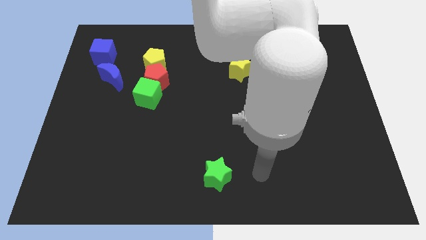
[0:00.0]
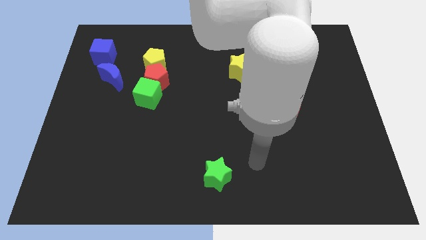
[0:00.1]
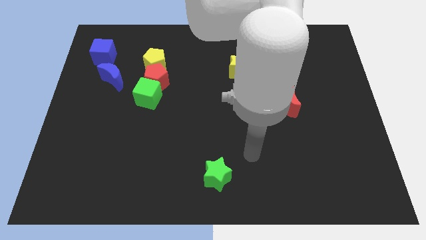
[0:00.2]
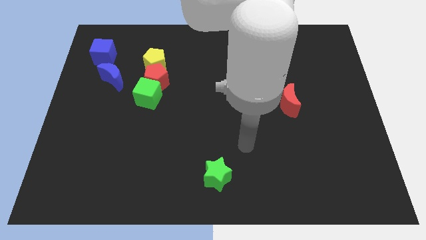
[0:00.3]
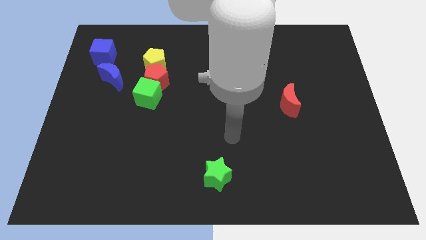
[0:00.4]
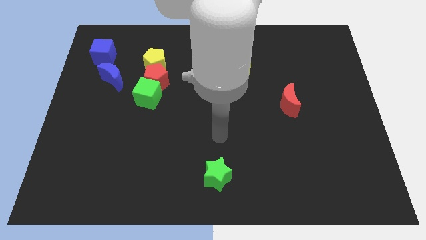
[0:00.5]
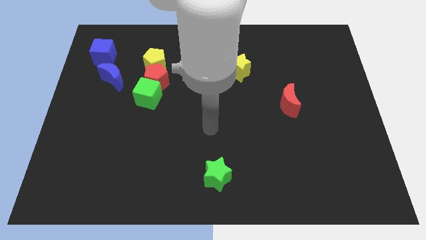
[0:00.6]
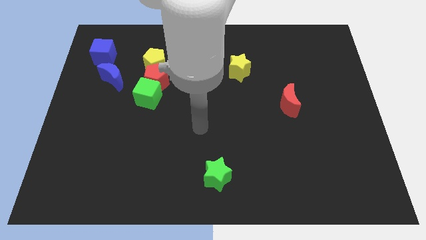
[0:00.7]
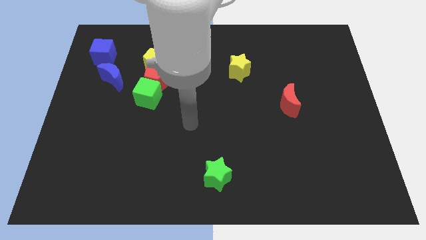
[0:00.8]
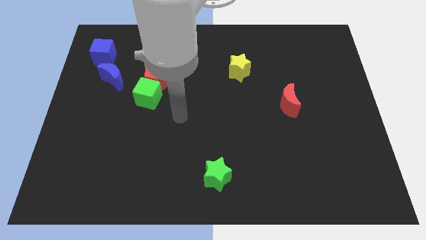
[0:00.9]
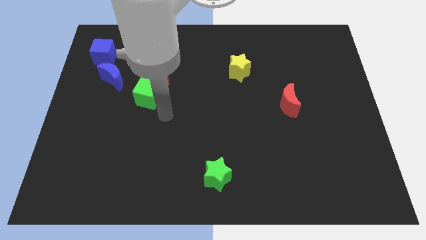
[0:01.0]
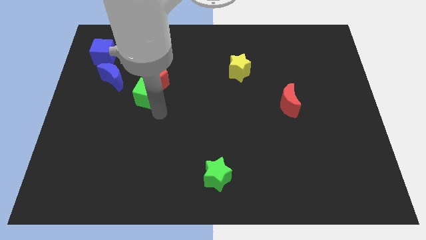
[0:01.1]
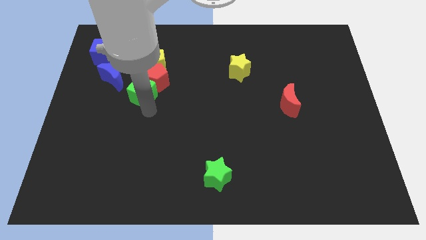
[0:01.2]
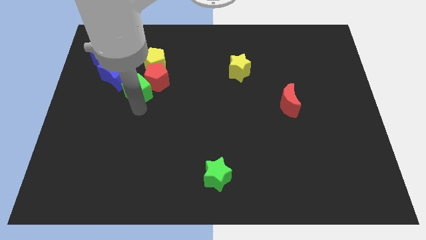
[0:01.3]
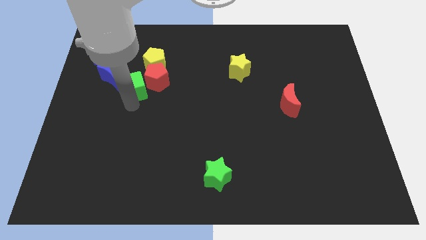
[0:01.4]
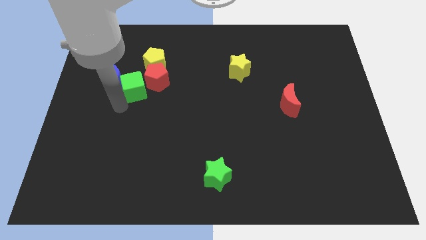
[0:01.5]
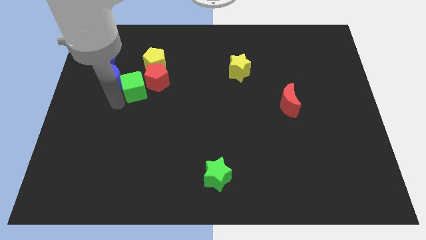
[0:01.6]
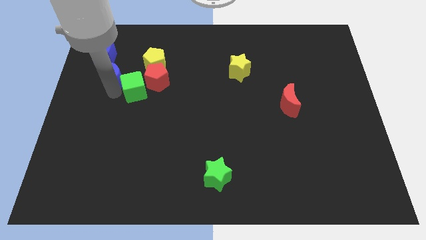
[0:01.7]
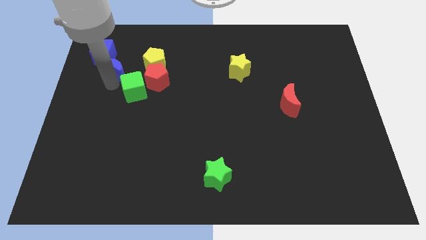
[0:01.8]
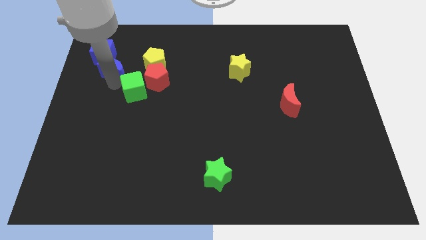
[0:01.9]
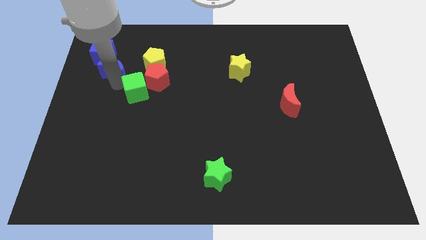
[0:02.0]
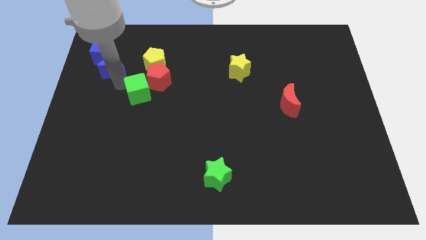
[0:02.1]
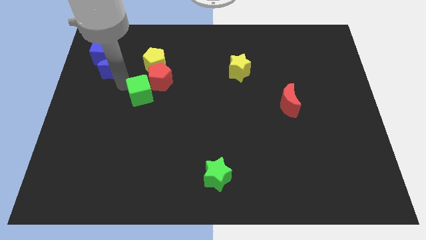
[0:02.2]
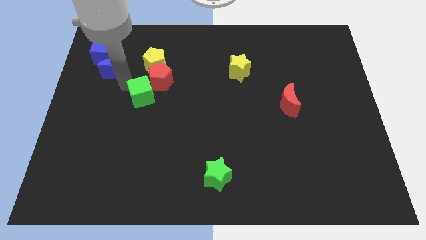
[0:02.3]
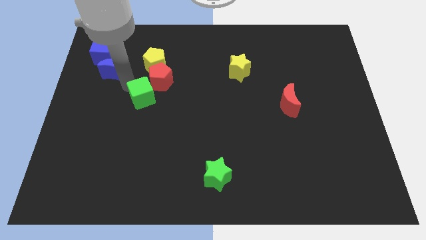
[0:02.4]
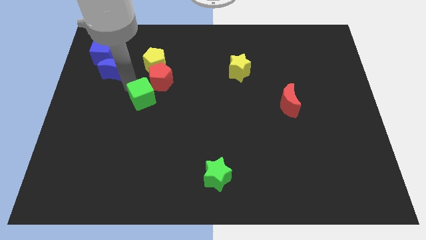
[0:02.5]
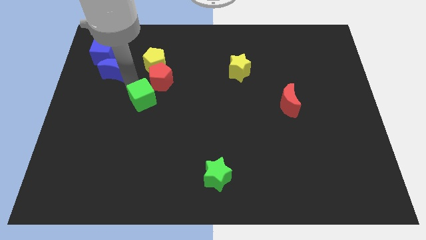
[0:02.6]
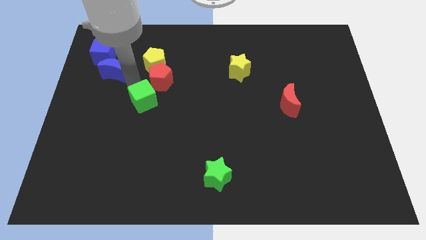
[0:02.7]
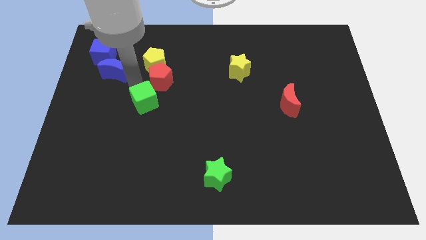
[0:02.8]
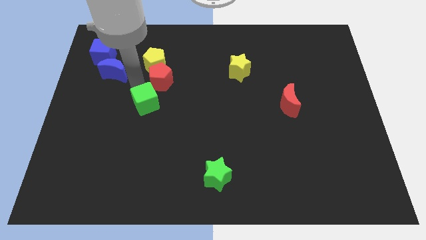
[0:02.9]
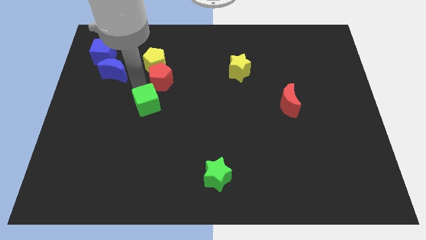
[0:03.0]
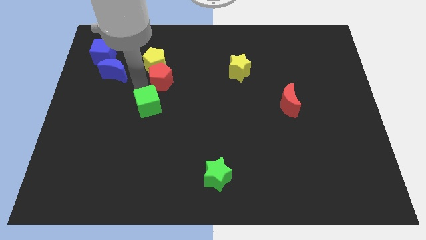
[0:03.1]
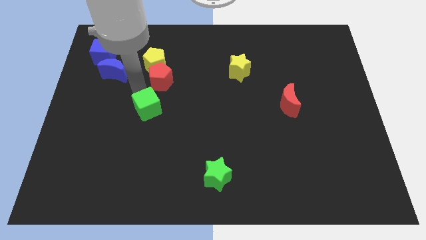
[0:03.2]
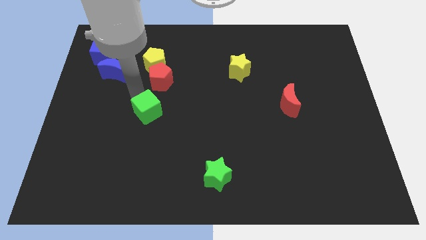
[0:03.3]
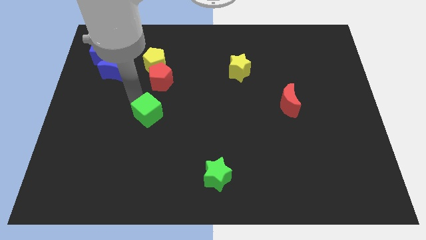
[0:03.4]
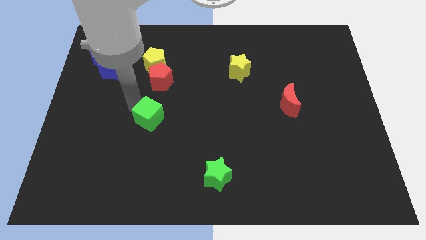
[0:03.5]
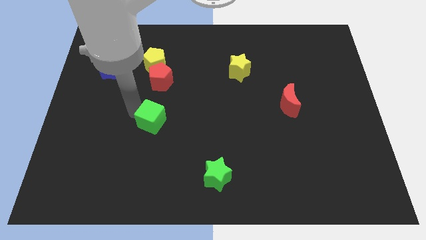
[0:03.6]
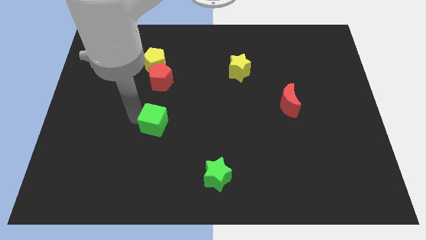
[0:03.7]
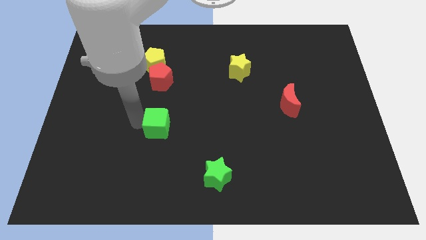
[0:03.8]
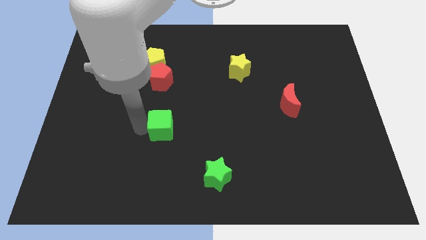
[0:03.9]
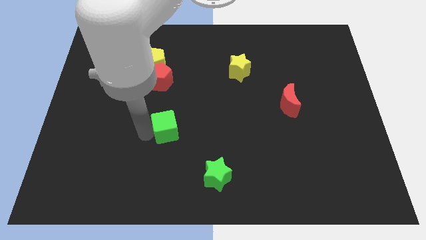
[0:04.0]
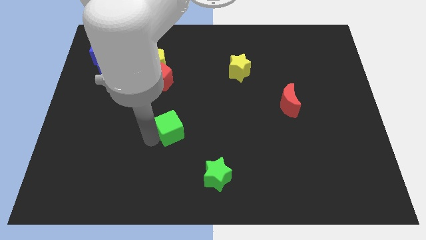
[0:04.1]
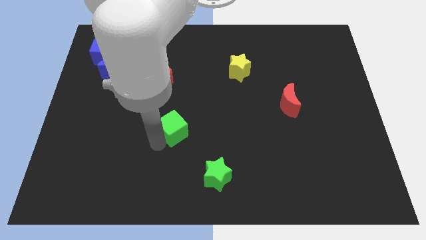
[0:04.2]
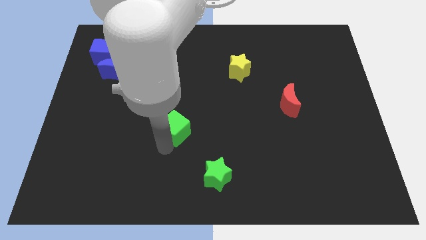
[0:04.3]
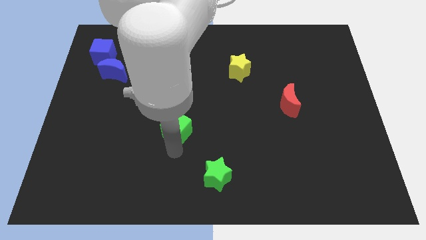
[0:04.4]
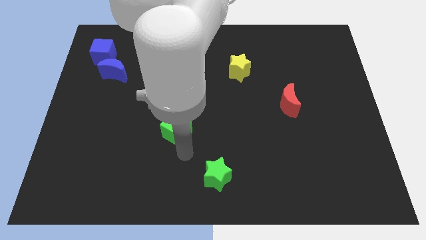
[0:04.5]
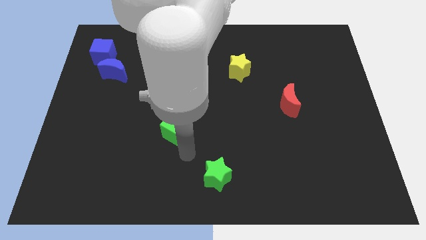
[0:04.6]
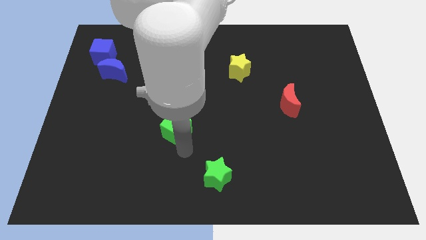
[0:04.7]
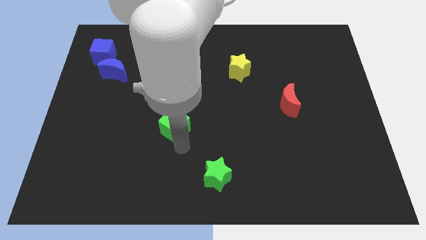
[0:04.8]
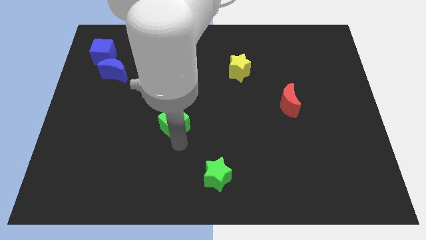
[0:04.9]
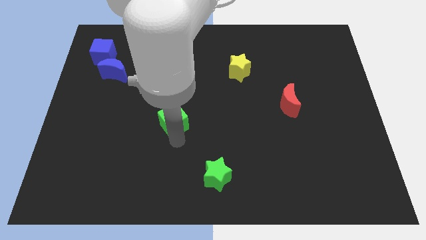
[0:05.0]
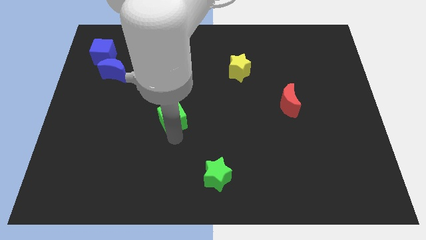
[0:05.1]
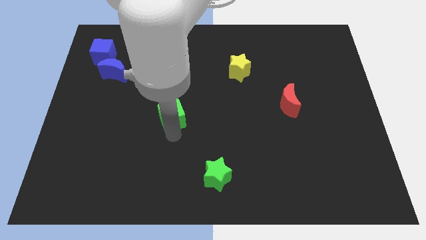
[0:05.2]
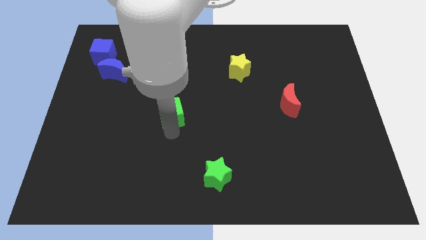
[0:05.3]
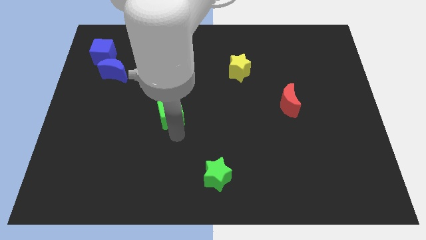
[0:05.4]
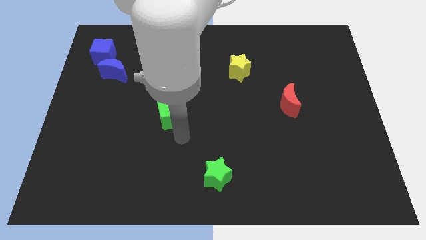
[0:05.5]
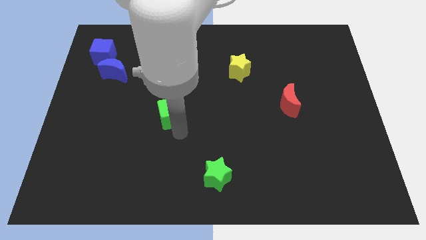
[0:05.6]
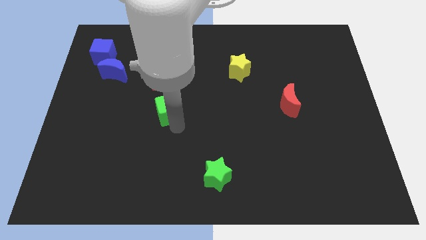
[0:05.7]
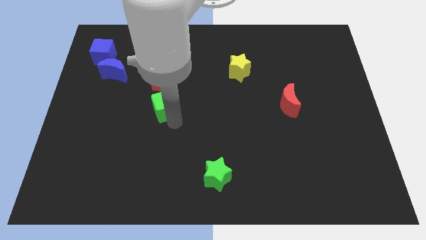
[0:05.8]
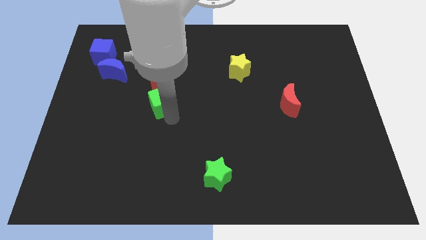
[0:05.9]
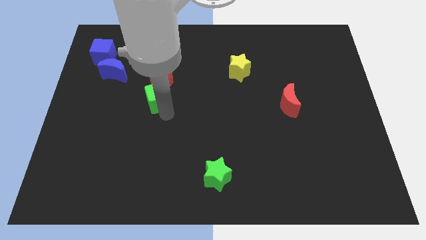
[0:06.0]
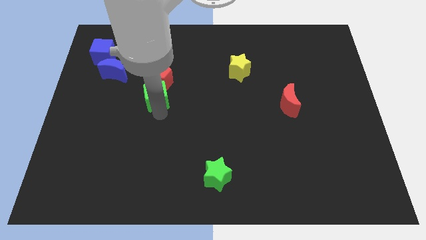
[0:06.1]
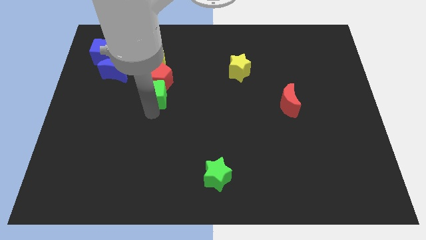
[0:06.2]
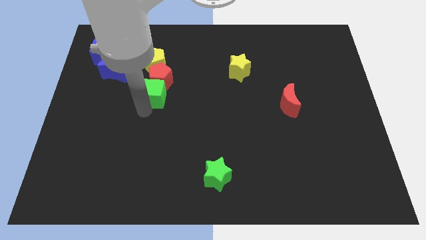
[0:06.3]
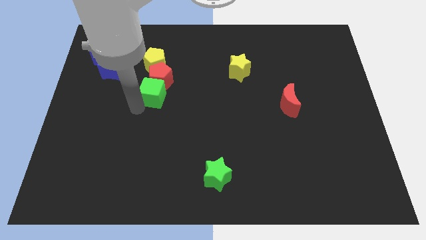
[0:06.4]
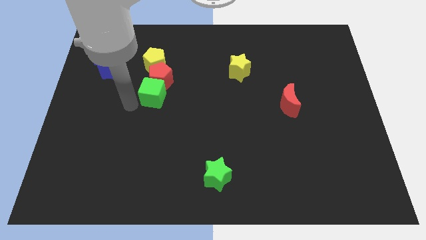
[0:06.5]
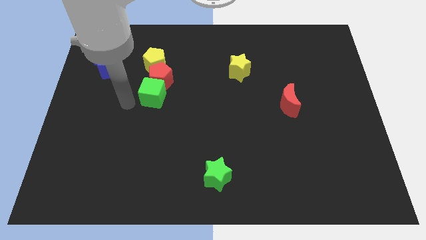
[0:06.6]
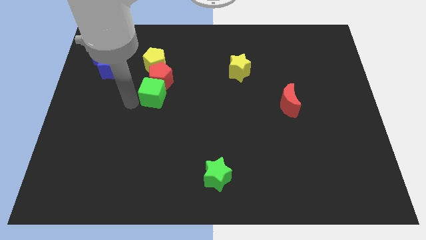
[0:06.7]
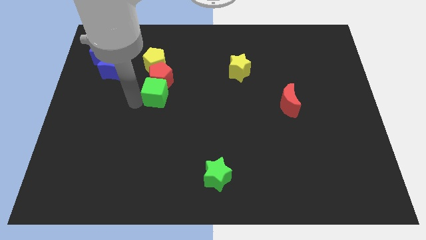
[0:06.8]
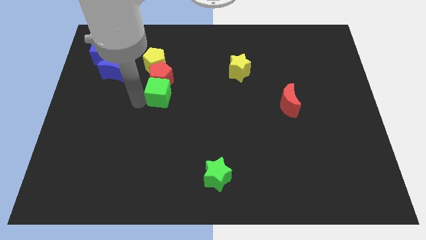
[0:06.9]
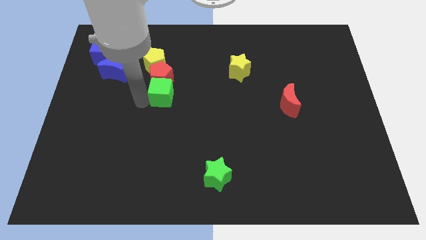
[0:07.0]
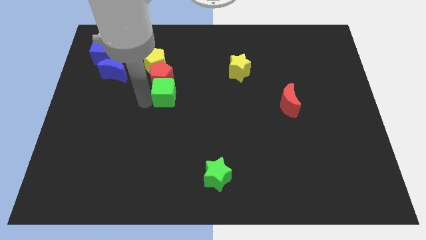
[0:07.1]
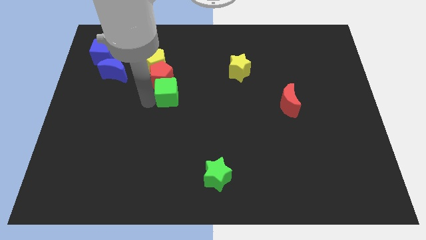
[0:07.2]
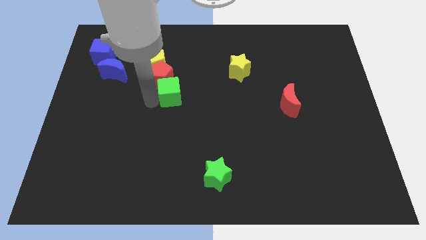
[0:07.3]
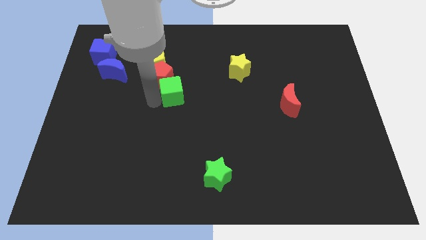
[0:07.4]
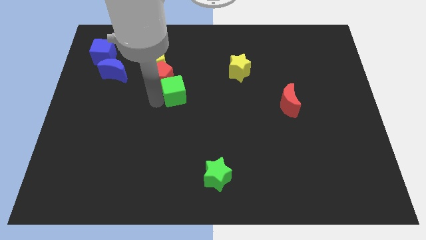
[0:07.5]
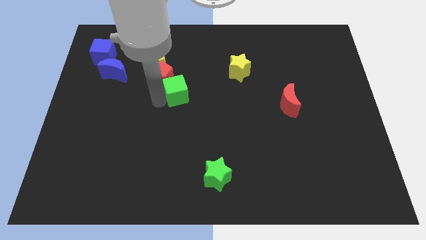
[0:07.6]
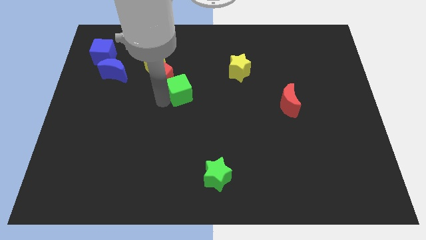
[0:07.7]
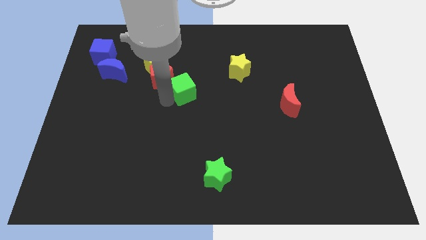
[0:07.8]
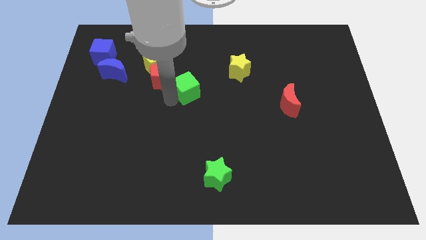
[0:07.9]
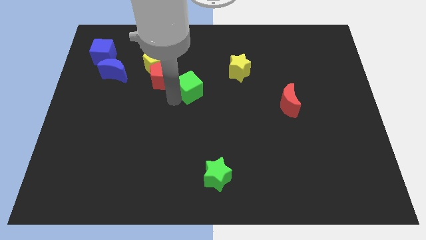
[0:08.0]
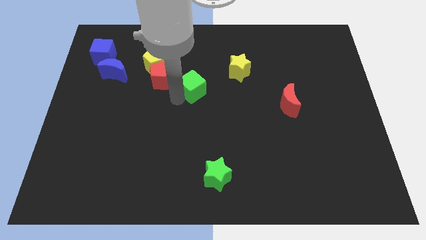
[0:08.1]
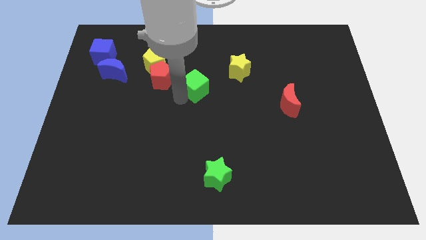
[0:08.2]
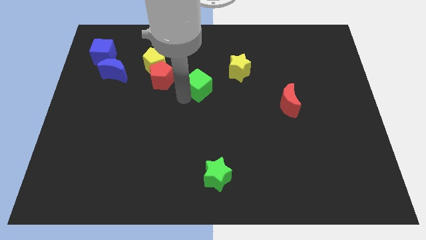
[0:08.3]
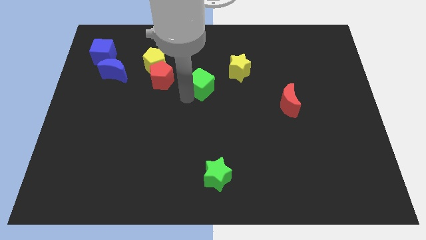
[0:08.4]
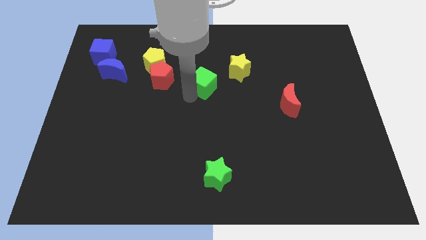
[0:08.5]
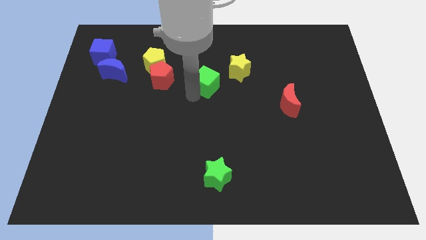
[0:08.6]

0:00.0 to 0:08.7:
move the green cube to the left side of the yellow star
